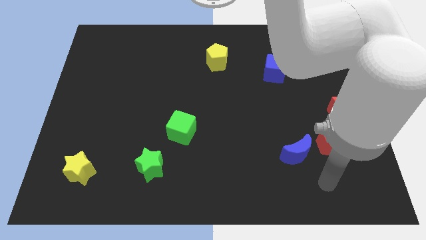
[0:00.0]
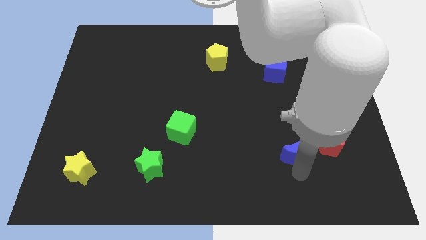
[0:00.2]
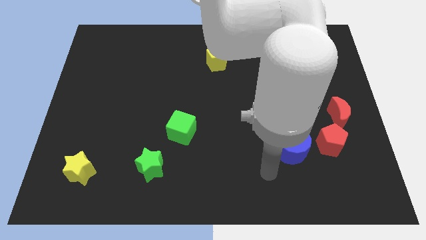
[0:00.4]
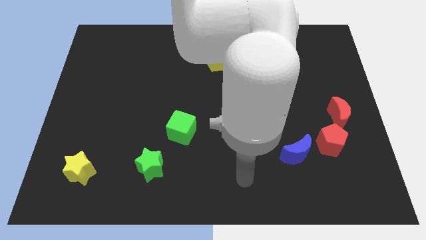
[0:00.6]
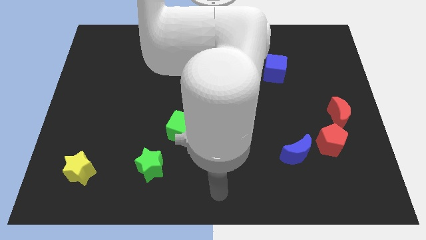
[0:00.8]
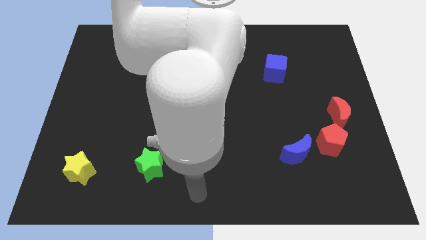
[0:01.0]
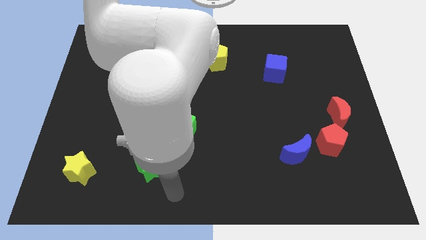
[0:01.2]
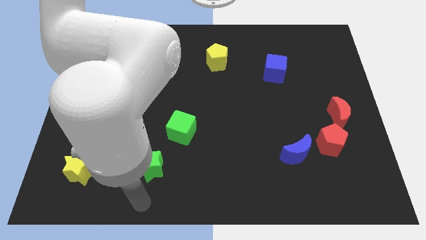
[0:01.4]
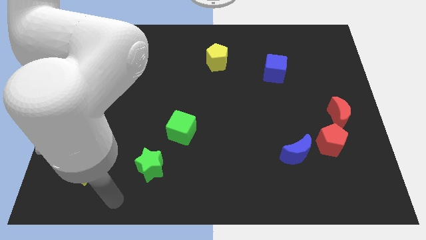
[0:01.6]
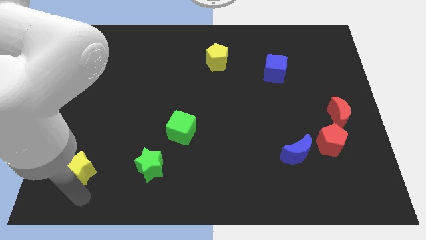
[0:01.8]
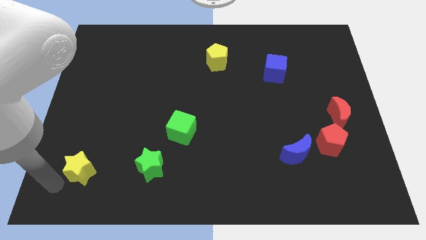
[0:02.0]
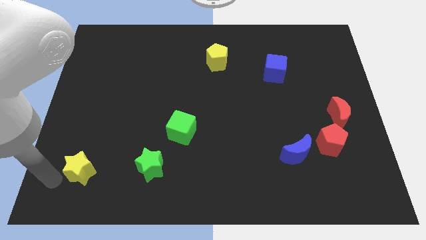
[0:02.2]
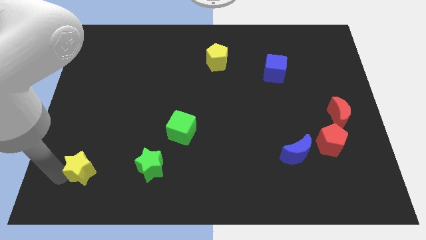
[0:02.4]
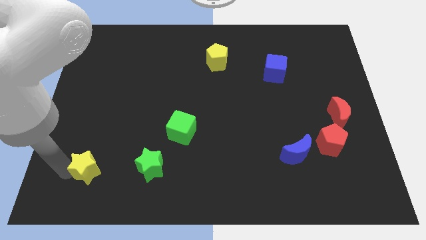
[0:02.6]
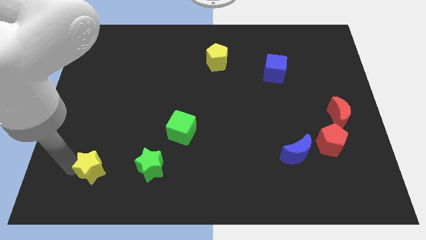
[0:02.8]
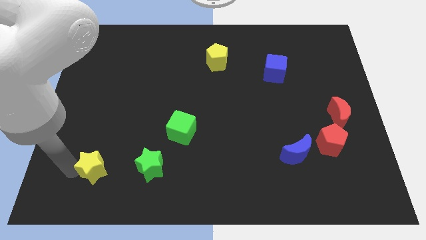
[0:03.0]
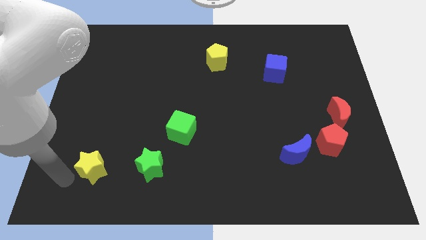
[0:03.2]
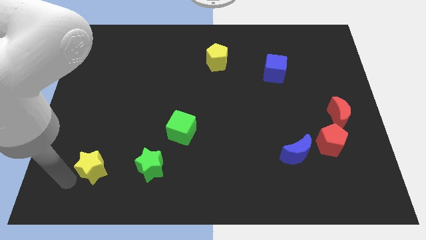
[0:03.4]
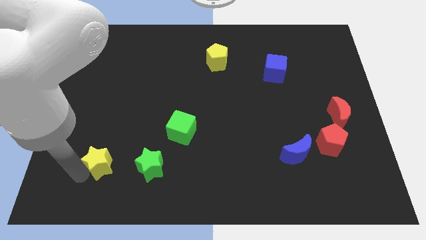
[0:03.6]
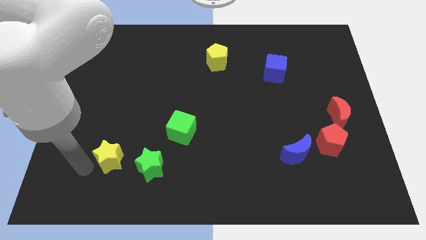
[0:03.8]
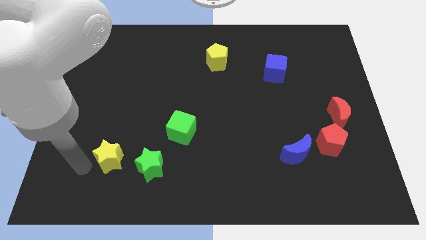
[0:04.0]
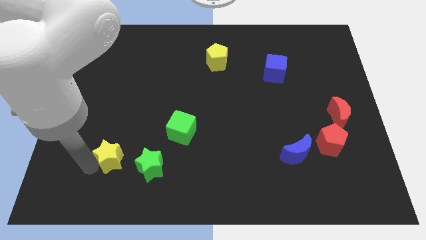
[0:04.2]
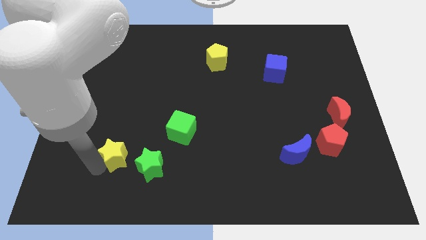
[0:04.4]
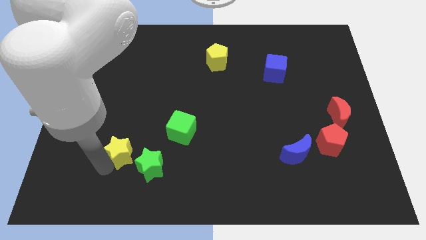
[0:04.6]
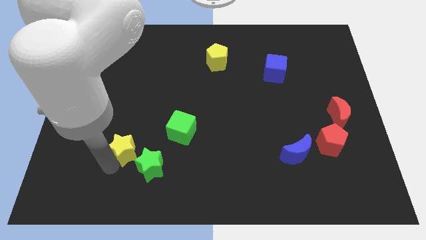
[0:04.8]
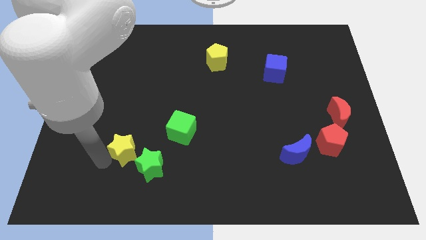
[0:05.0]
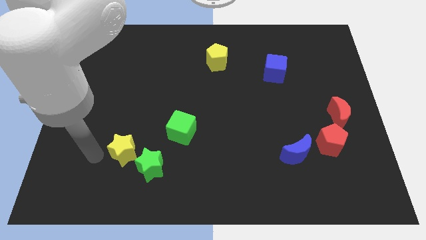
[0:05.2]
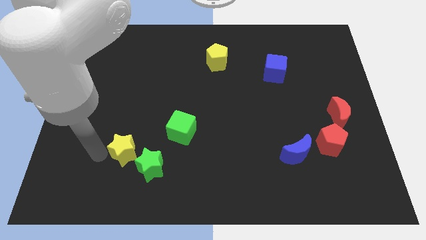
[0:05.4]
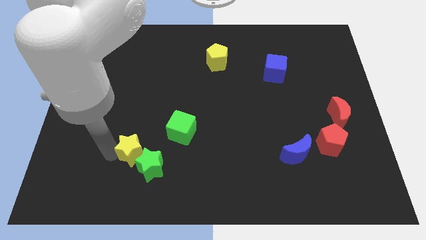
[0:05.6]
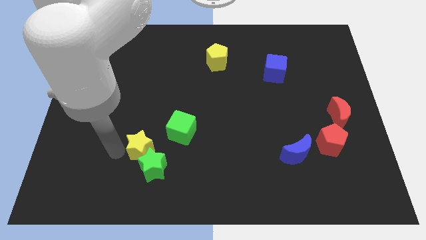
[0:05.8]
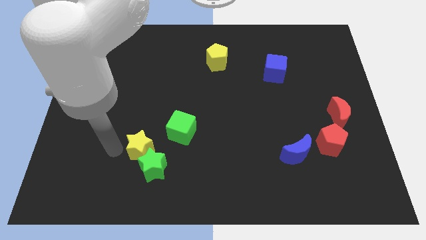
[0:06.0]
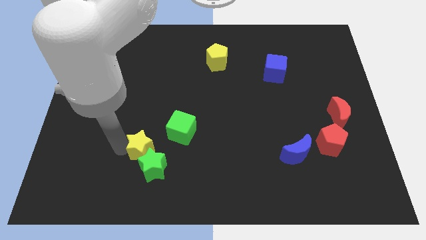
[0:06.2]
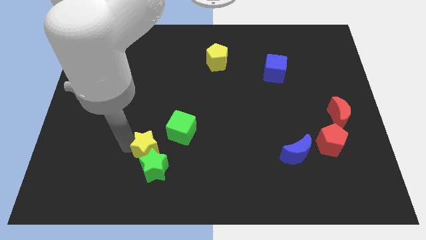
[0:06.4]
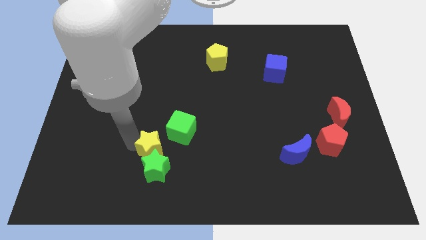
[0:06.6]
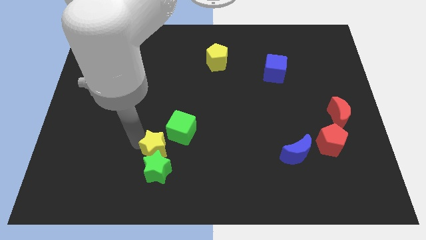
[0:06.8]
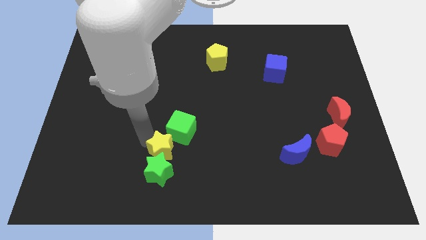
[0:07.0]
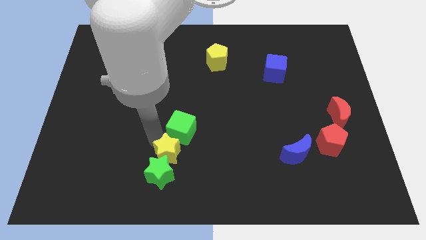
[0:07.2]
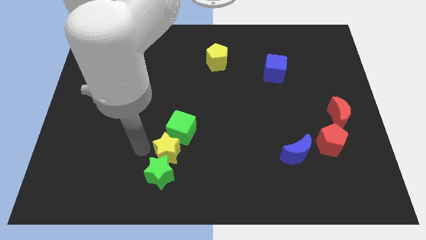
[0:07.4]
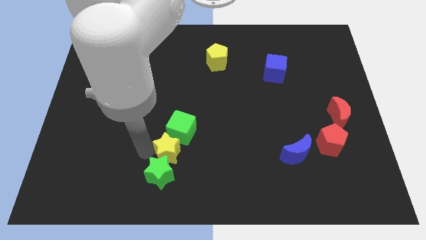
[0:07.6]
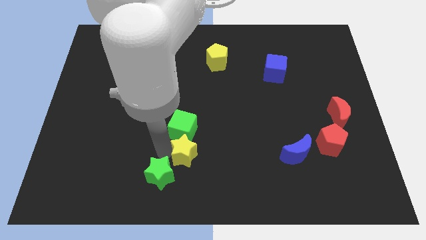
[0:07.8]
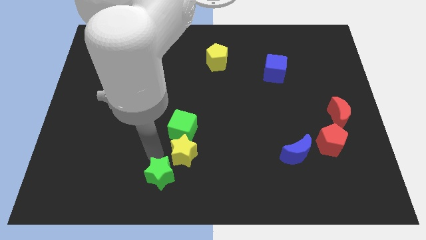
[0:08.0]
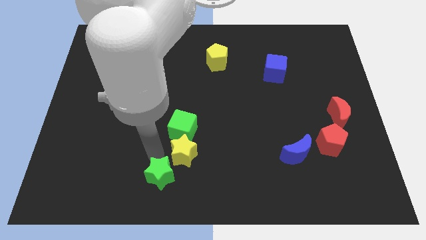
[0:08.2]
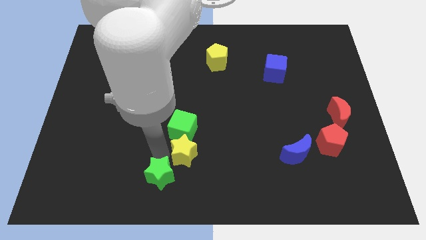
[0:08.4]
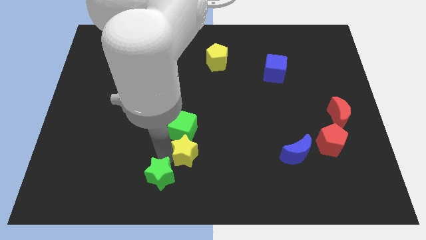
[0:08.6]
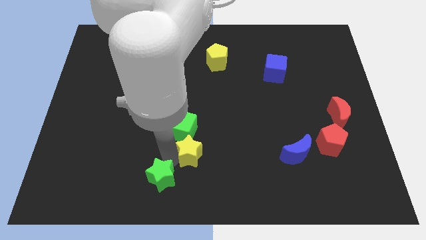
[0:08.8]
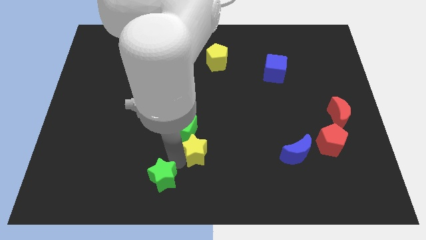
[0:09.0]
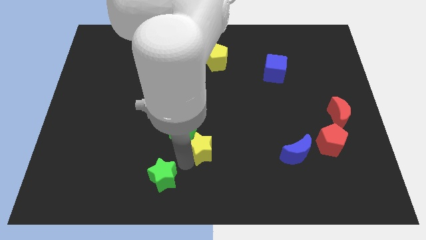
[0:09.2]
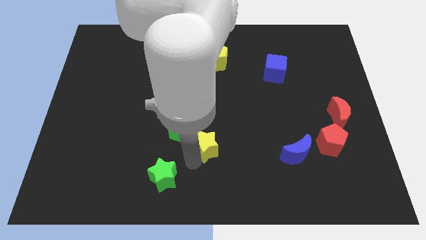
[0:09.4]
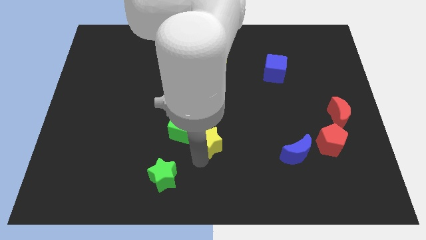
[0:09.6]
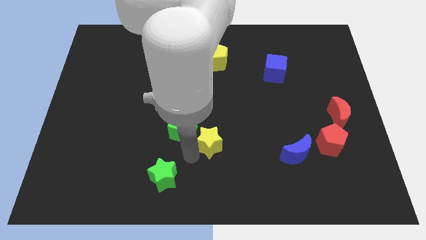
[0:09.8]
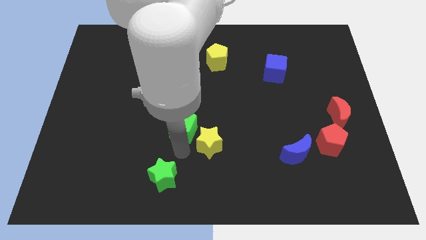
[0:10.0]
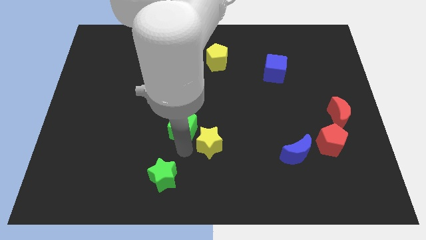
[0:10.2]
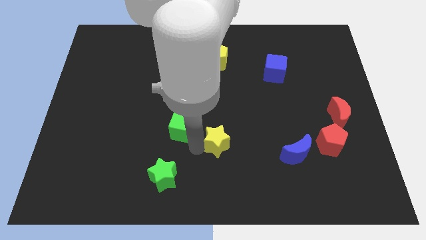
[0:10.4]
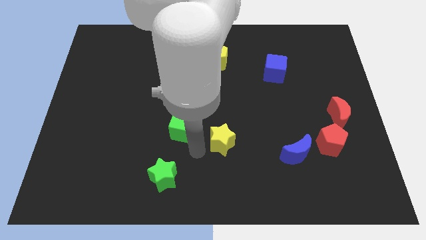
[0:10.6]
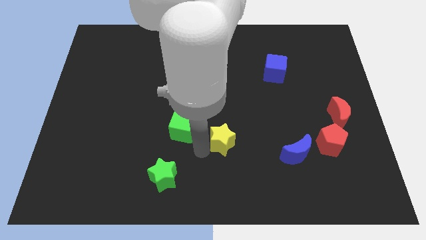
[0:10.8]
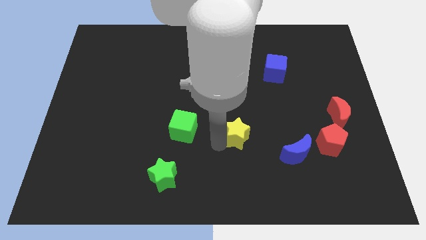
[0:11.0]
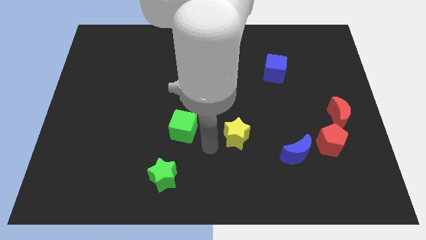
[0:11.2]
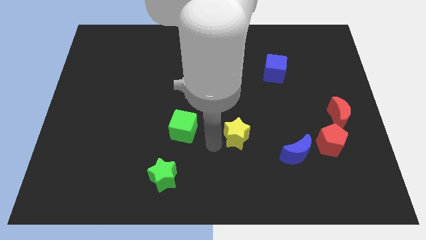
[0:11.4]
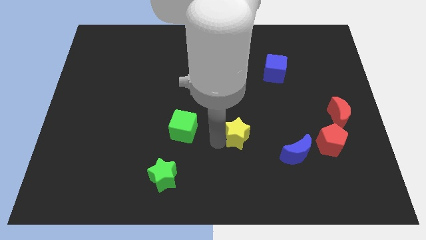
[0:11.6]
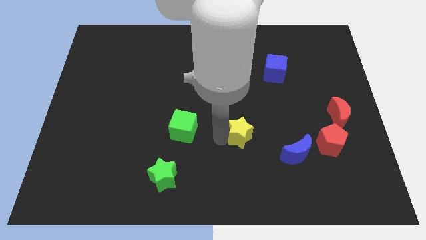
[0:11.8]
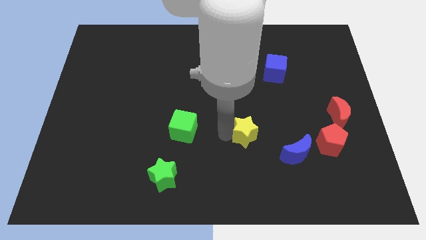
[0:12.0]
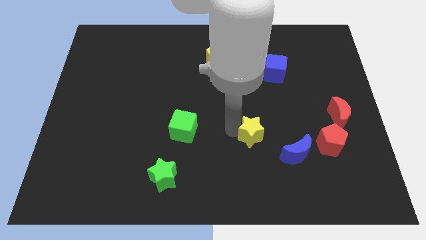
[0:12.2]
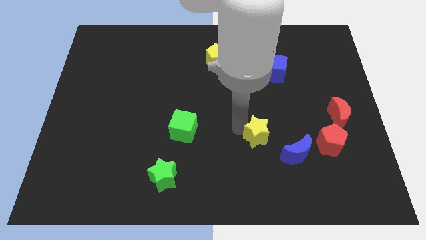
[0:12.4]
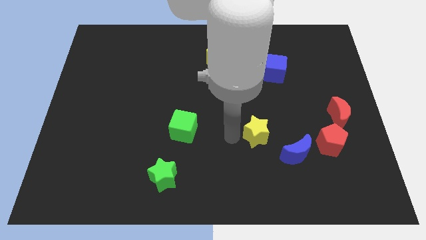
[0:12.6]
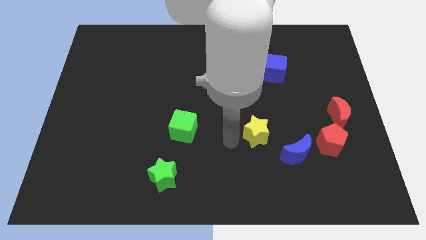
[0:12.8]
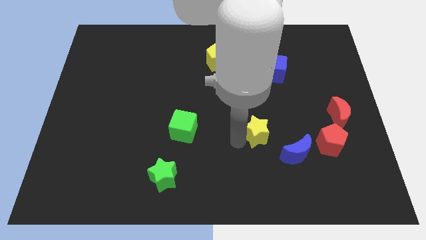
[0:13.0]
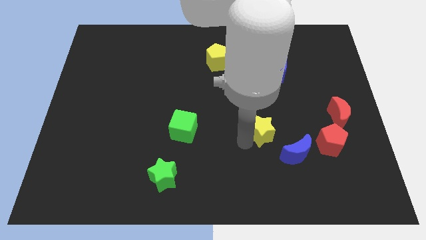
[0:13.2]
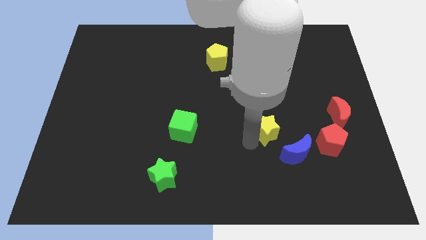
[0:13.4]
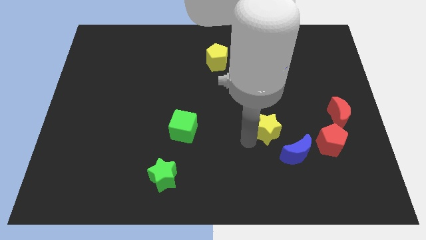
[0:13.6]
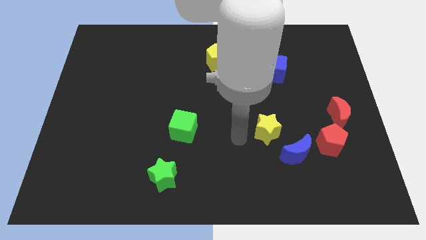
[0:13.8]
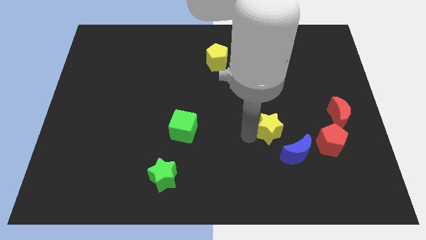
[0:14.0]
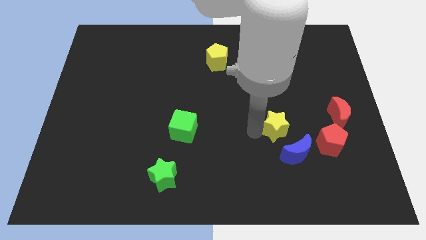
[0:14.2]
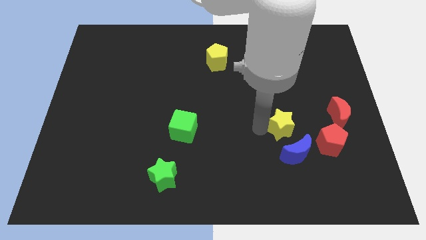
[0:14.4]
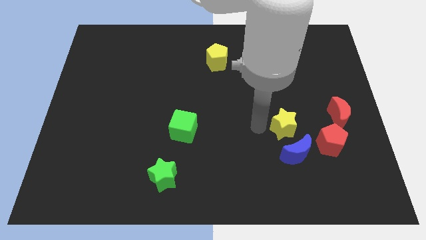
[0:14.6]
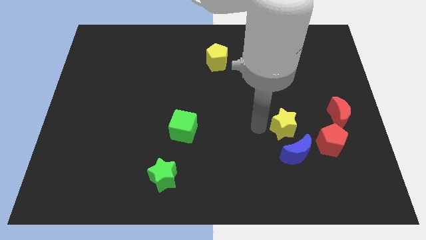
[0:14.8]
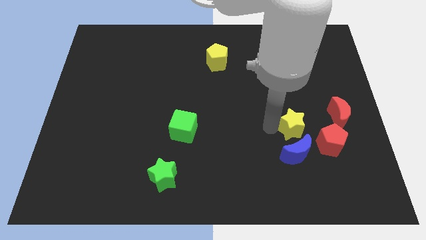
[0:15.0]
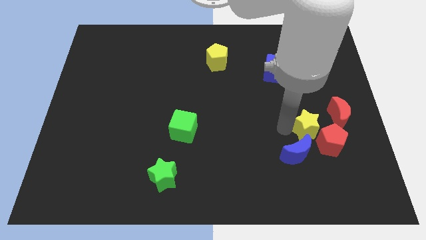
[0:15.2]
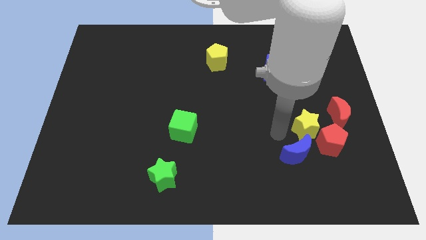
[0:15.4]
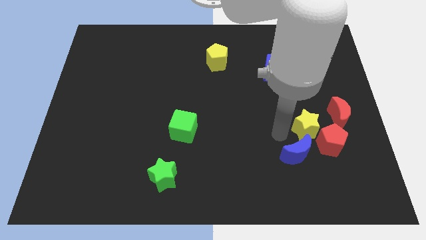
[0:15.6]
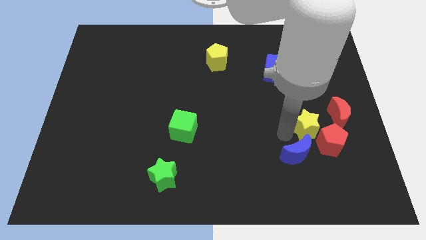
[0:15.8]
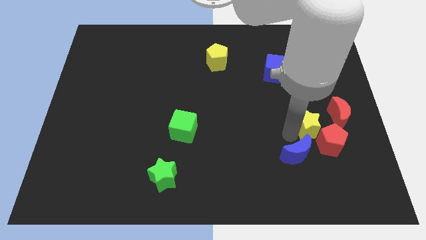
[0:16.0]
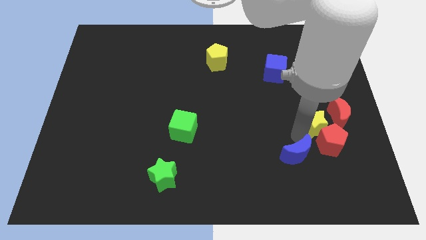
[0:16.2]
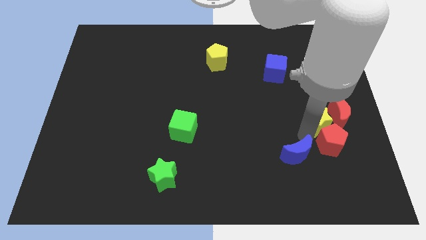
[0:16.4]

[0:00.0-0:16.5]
slide the yellow star next to the red moon
